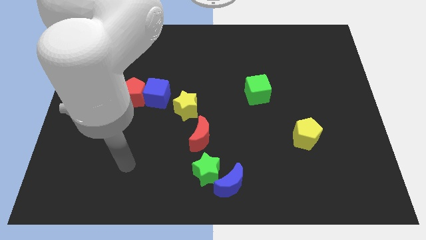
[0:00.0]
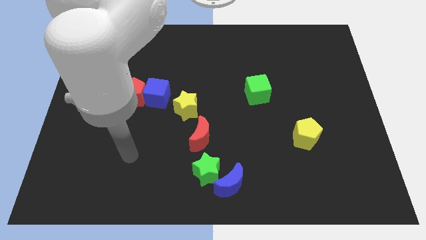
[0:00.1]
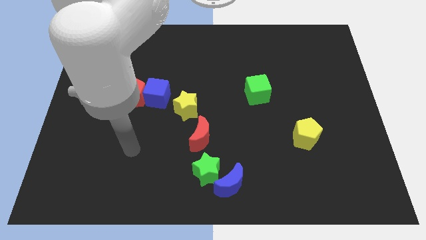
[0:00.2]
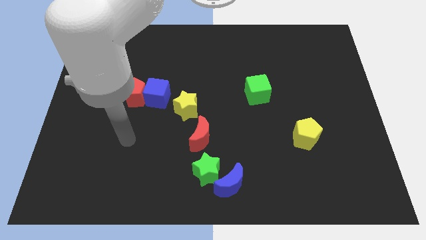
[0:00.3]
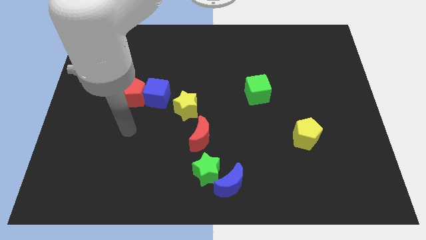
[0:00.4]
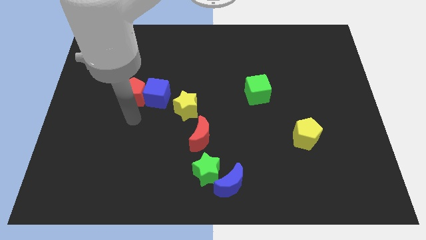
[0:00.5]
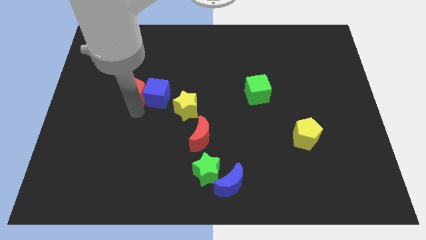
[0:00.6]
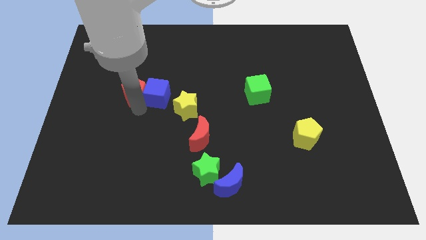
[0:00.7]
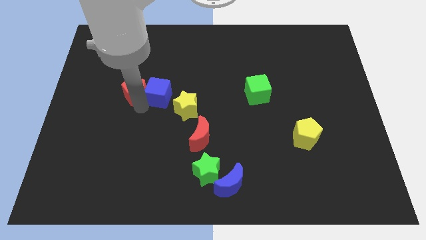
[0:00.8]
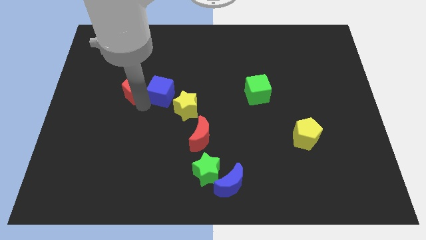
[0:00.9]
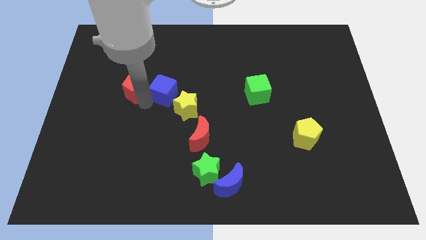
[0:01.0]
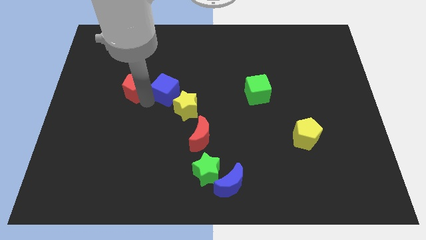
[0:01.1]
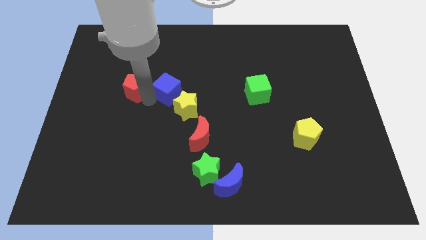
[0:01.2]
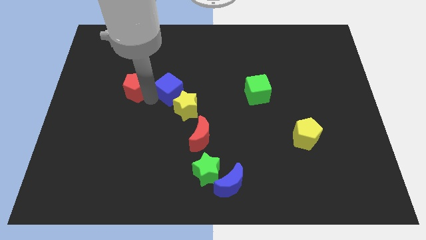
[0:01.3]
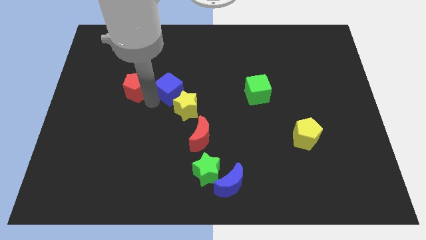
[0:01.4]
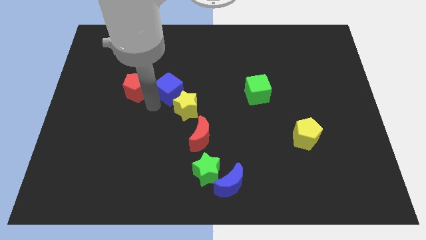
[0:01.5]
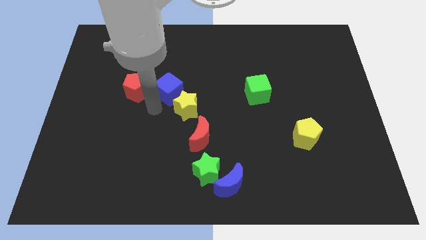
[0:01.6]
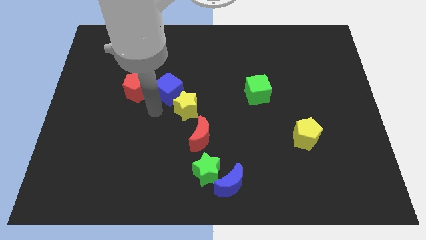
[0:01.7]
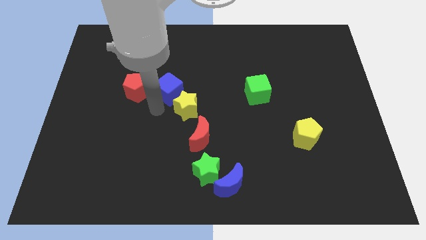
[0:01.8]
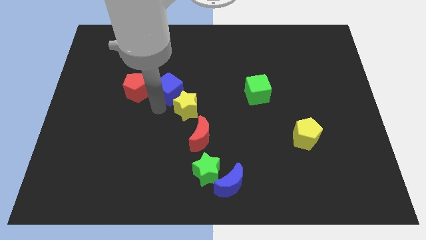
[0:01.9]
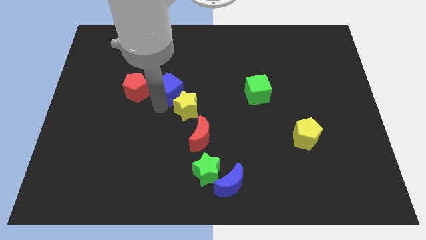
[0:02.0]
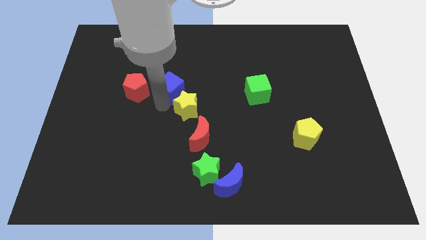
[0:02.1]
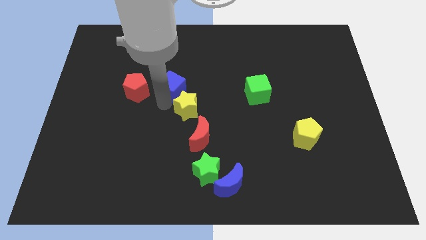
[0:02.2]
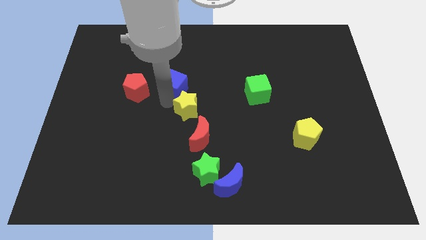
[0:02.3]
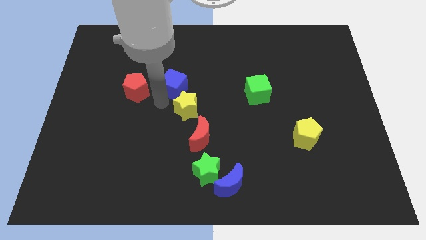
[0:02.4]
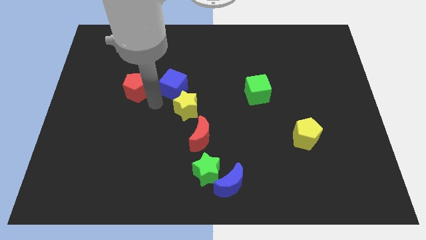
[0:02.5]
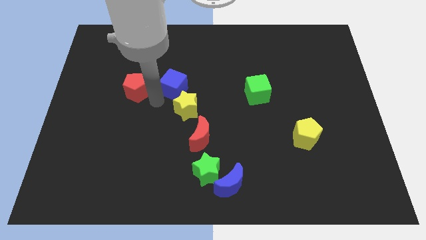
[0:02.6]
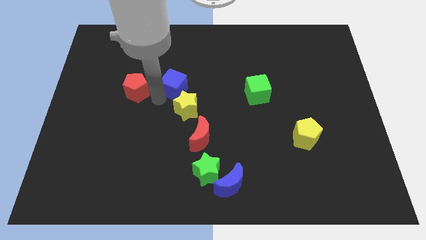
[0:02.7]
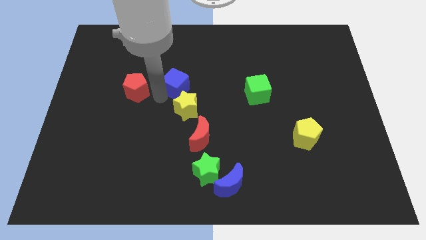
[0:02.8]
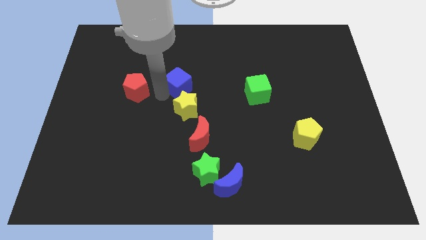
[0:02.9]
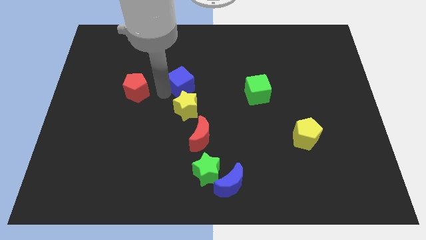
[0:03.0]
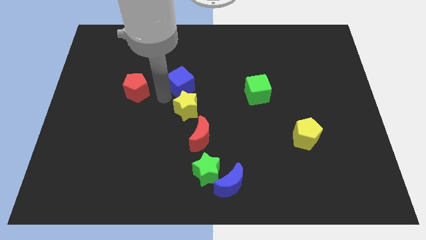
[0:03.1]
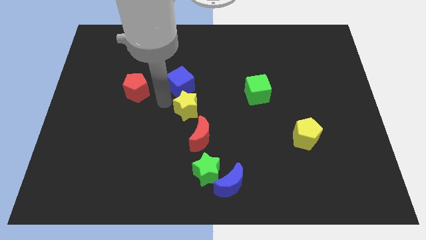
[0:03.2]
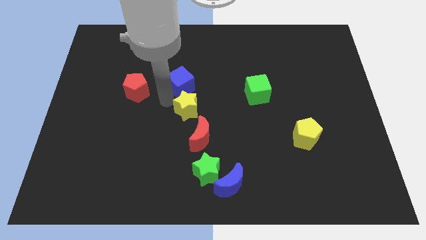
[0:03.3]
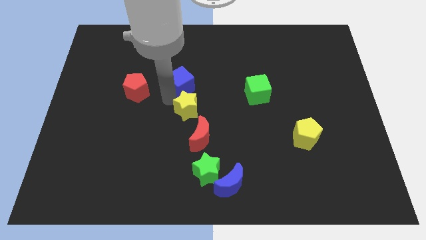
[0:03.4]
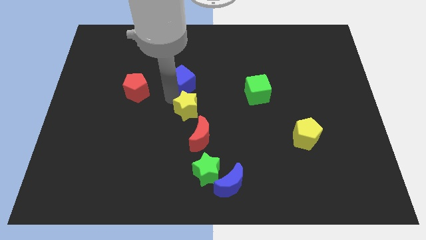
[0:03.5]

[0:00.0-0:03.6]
slightly slide the blue cube up and right

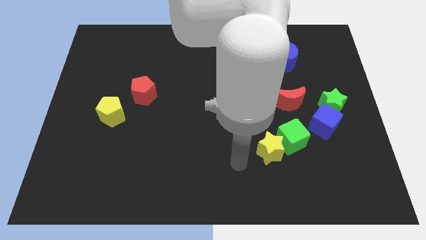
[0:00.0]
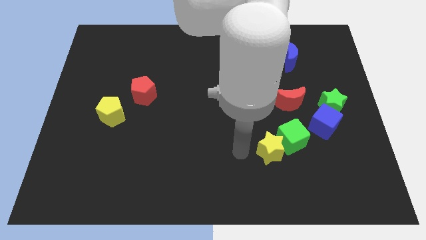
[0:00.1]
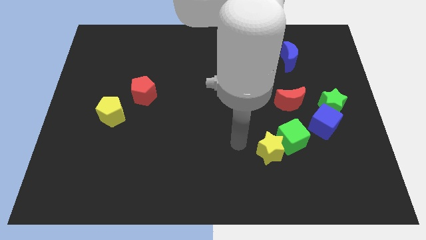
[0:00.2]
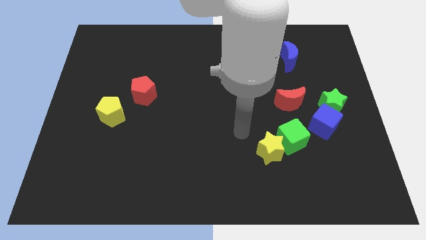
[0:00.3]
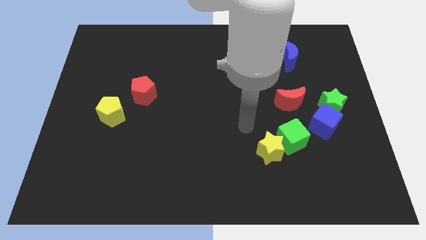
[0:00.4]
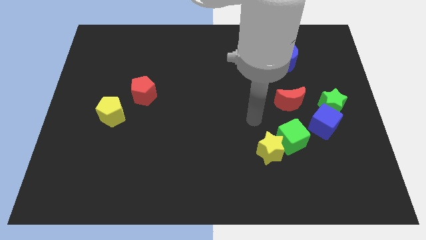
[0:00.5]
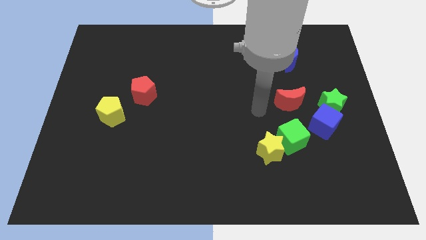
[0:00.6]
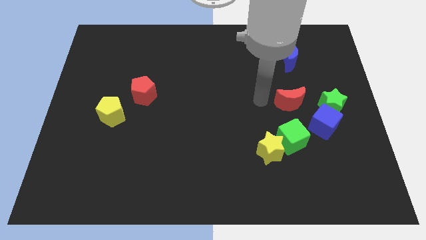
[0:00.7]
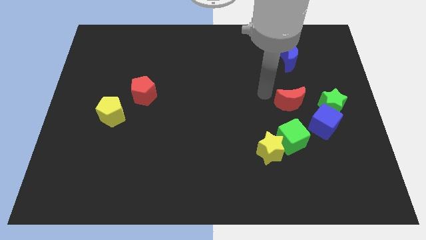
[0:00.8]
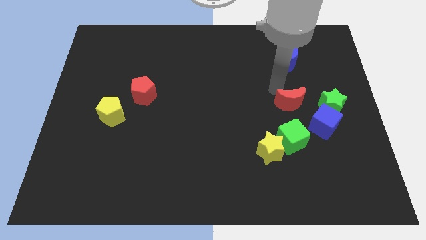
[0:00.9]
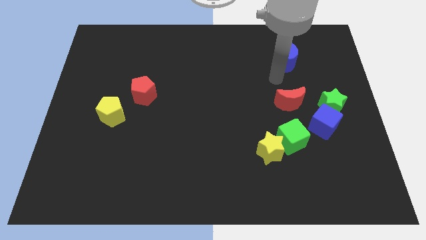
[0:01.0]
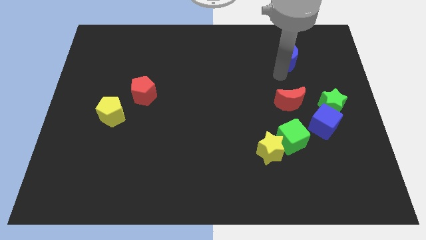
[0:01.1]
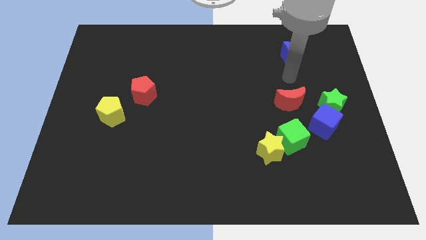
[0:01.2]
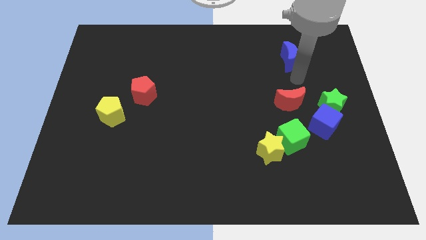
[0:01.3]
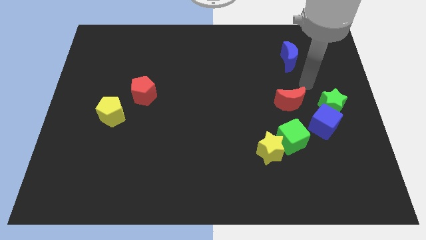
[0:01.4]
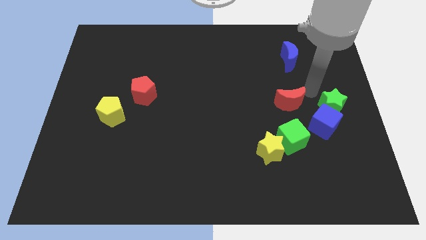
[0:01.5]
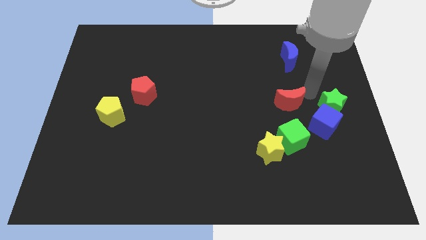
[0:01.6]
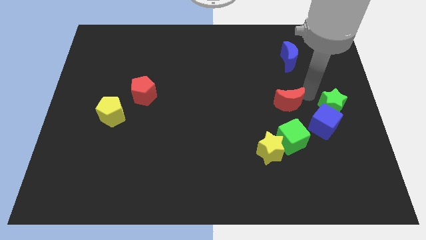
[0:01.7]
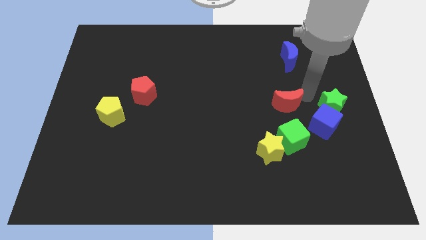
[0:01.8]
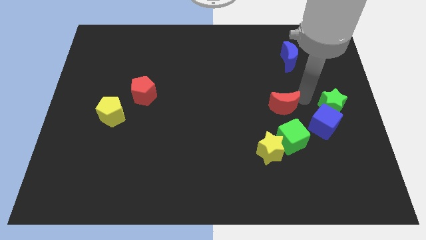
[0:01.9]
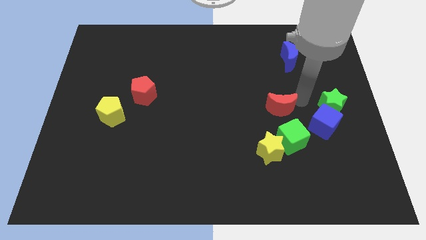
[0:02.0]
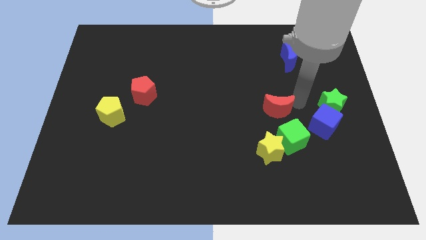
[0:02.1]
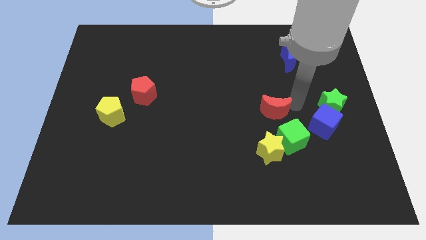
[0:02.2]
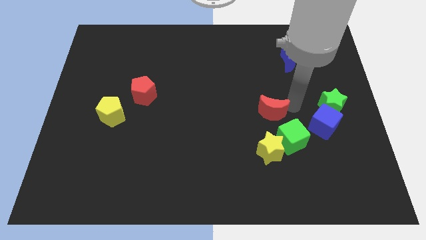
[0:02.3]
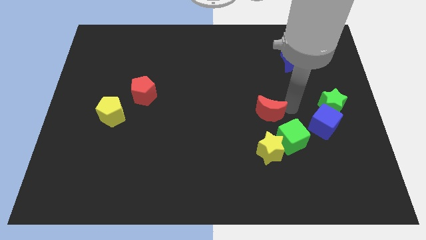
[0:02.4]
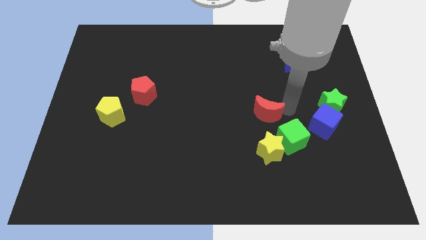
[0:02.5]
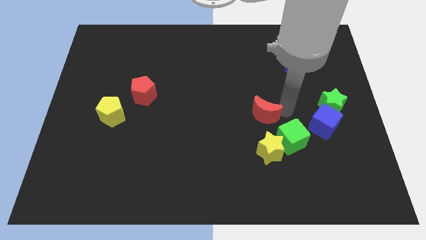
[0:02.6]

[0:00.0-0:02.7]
slightly slide the red moon diagonally downwards and left

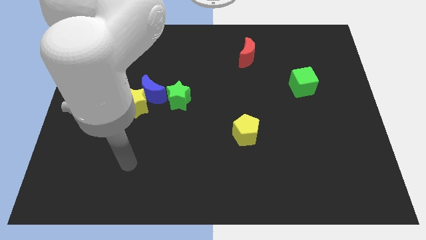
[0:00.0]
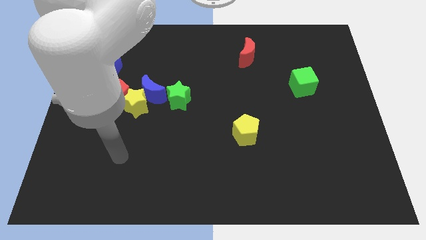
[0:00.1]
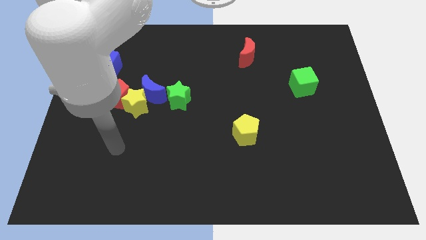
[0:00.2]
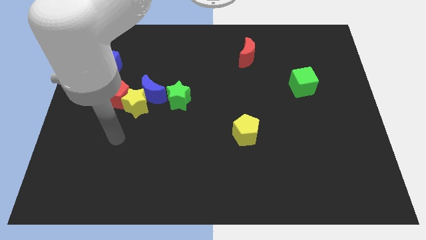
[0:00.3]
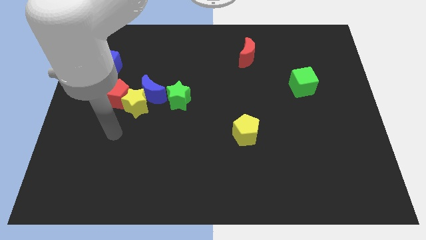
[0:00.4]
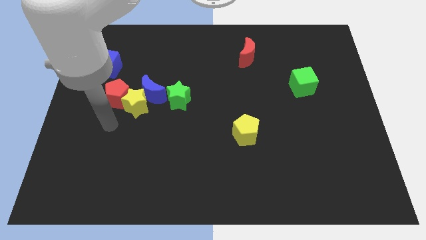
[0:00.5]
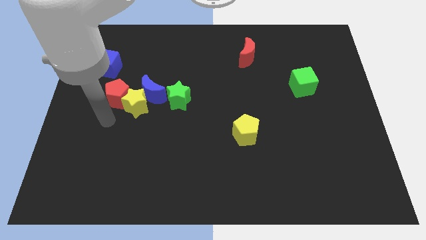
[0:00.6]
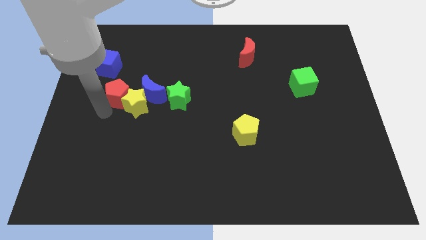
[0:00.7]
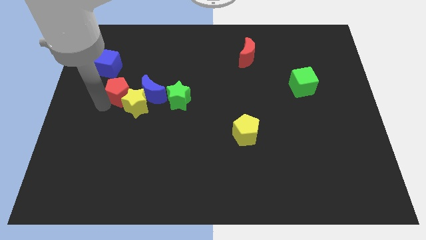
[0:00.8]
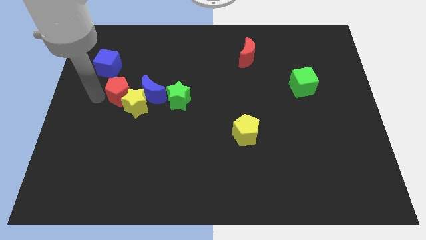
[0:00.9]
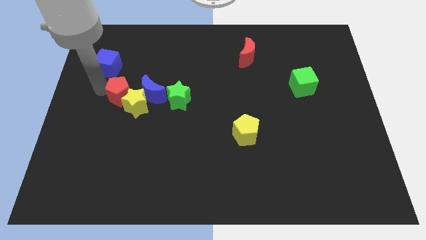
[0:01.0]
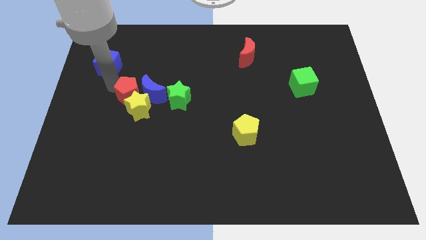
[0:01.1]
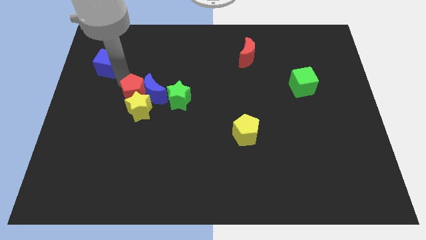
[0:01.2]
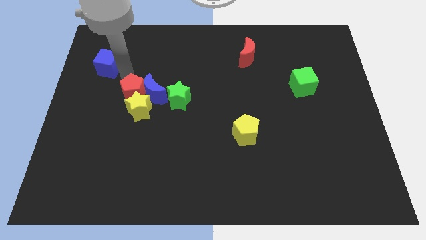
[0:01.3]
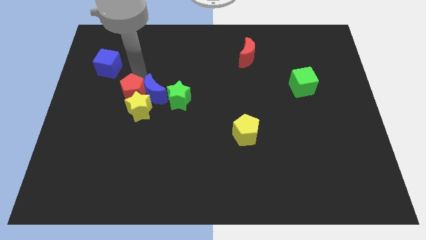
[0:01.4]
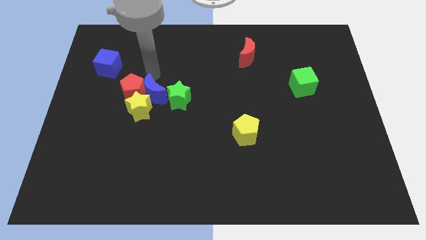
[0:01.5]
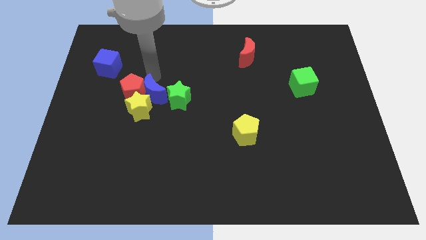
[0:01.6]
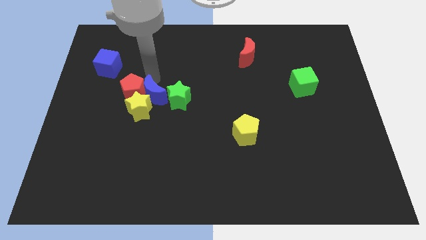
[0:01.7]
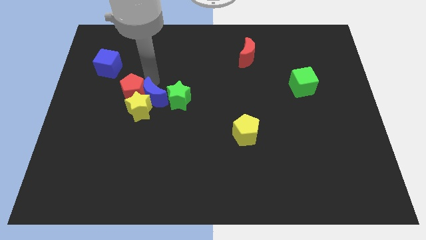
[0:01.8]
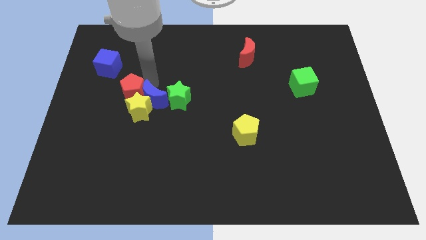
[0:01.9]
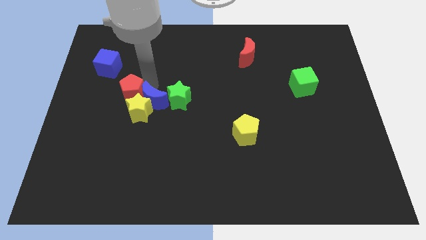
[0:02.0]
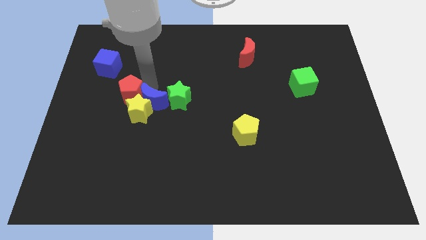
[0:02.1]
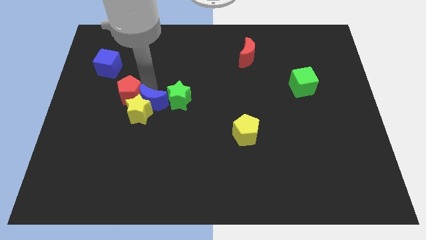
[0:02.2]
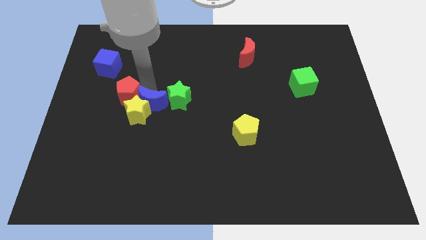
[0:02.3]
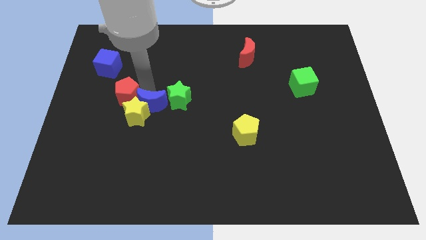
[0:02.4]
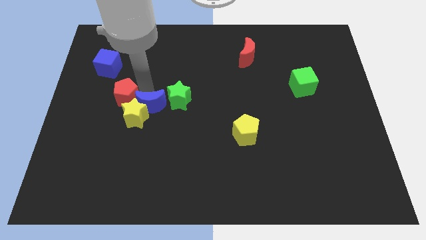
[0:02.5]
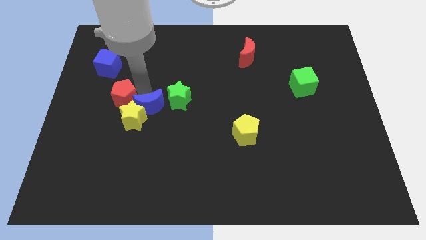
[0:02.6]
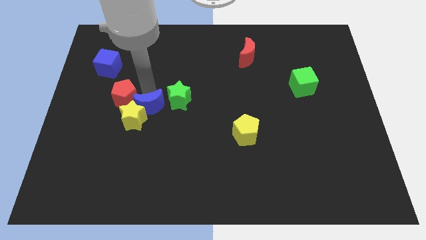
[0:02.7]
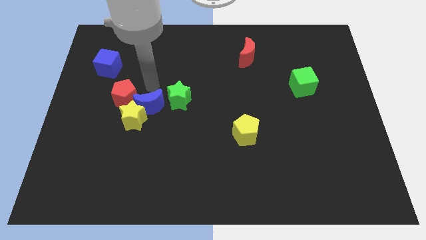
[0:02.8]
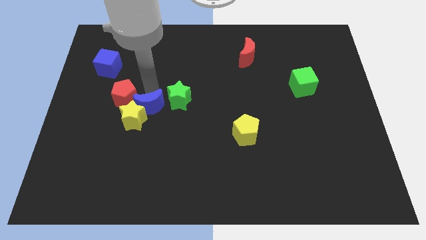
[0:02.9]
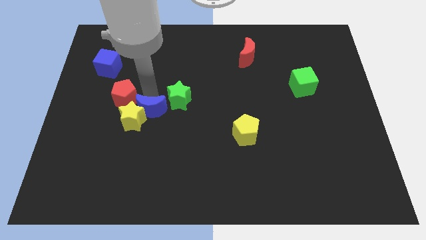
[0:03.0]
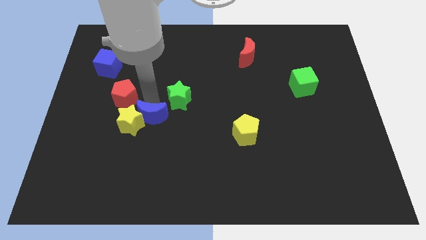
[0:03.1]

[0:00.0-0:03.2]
slide the blue moon down slightly
